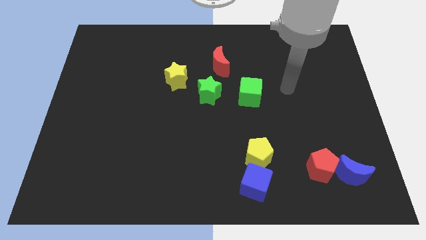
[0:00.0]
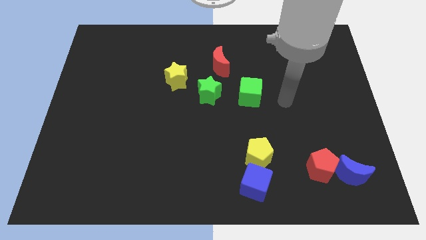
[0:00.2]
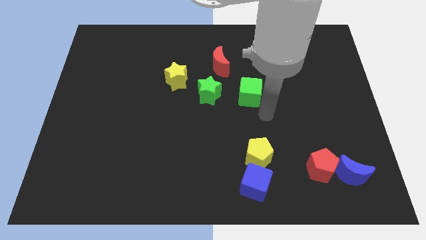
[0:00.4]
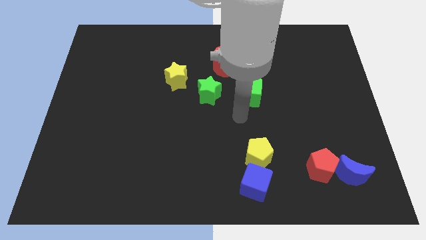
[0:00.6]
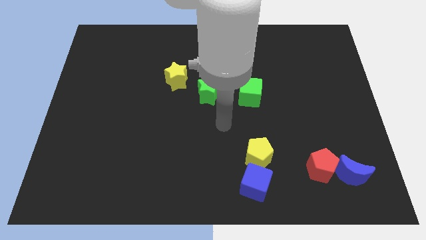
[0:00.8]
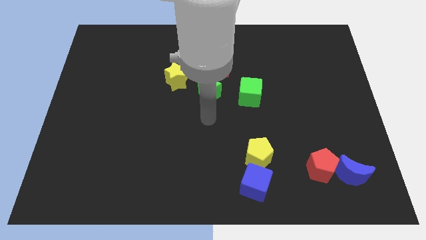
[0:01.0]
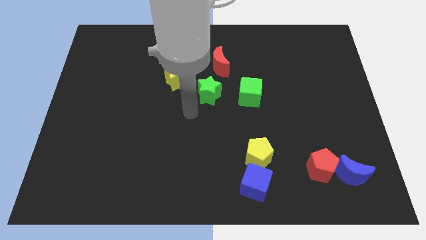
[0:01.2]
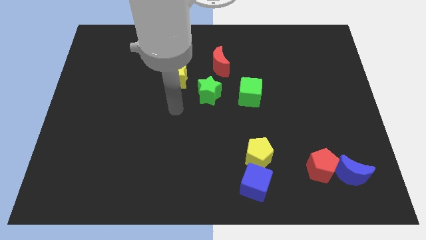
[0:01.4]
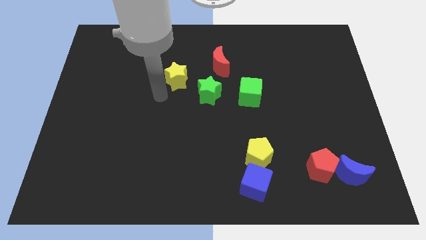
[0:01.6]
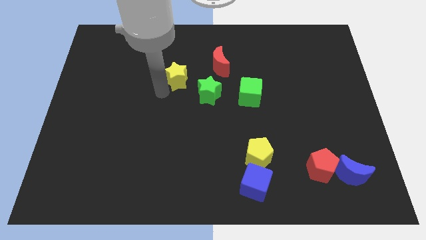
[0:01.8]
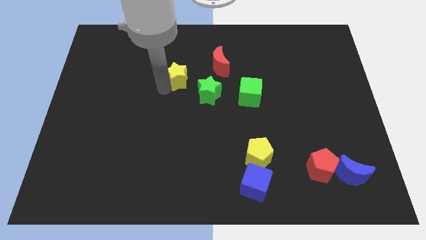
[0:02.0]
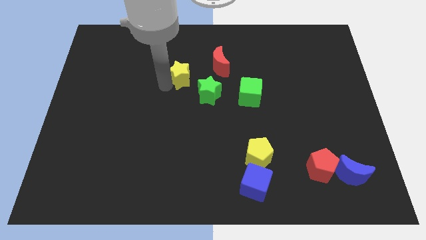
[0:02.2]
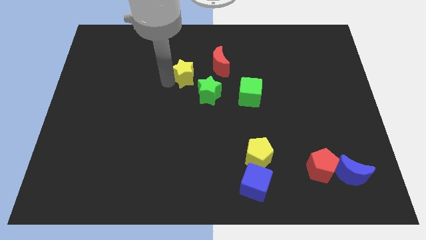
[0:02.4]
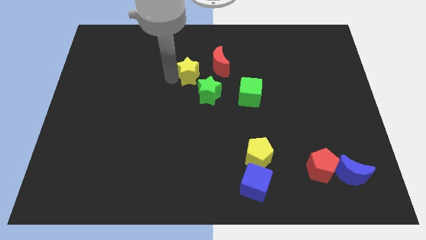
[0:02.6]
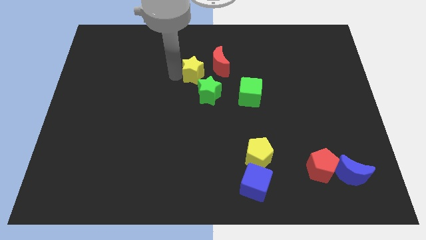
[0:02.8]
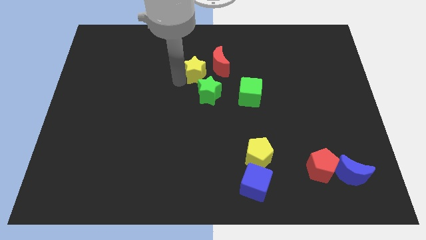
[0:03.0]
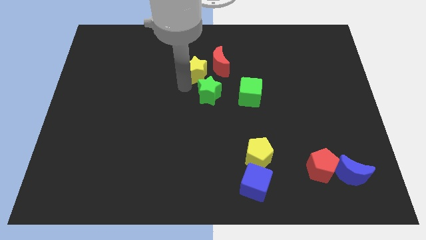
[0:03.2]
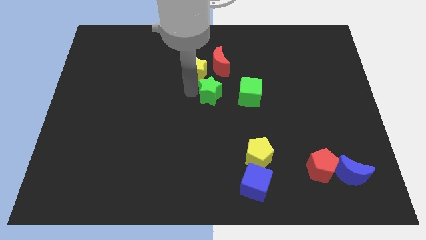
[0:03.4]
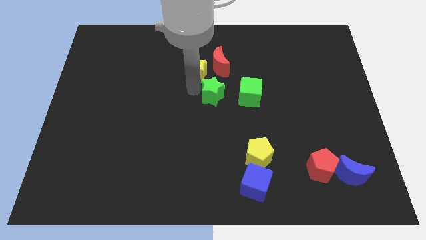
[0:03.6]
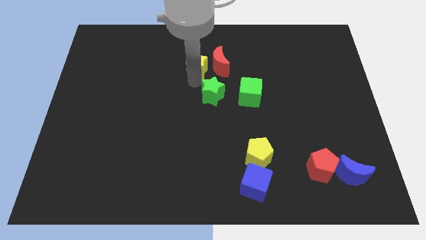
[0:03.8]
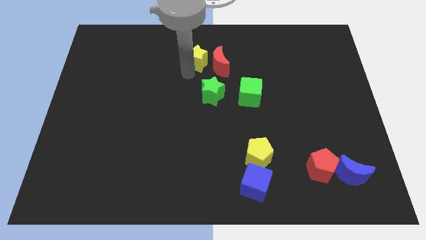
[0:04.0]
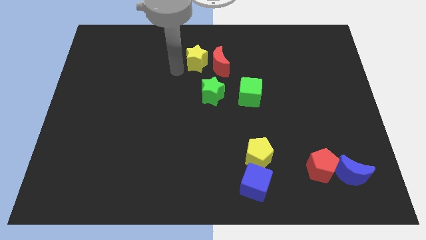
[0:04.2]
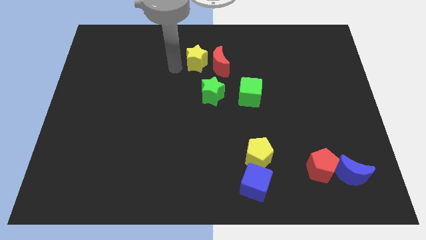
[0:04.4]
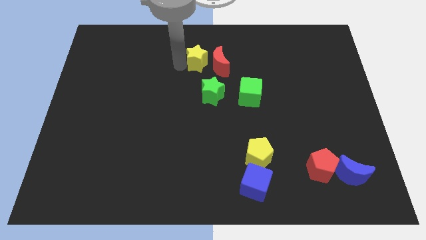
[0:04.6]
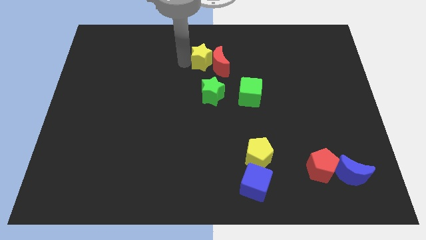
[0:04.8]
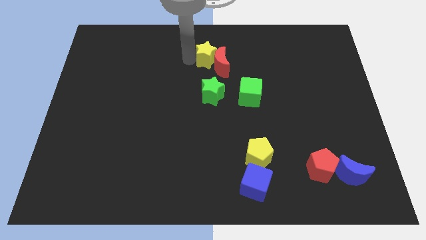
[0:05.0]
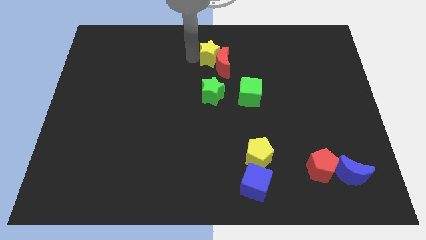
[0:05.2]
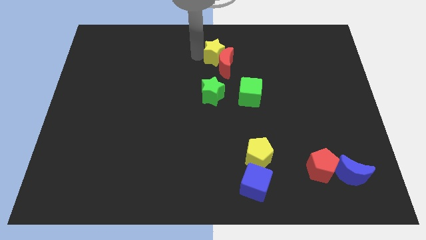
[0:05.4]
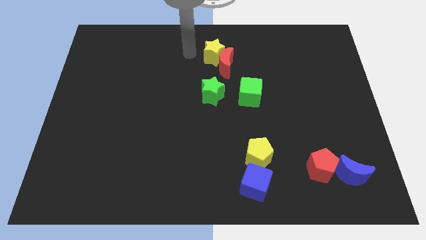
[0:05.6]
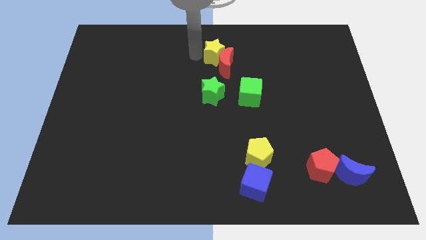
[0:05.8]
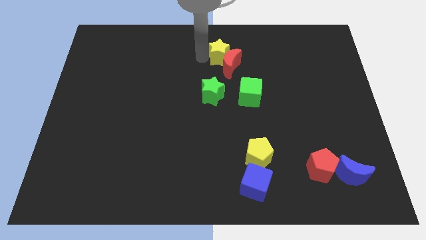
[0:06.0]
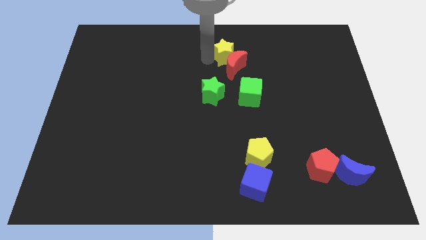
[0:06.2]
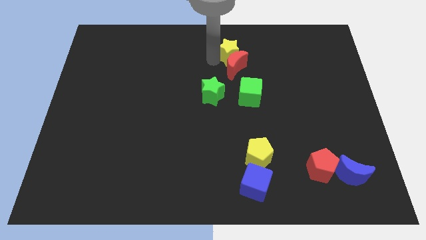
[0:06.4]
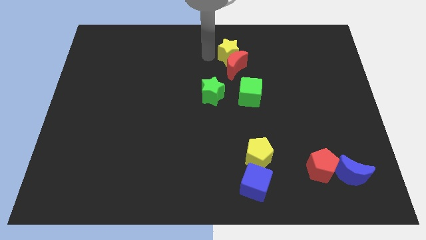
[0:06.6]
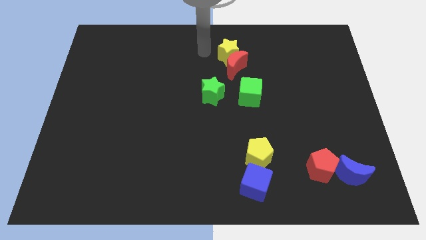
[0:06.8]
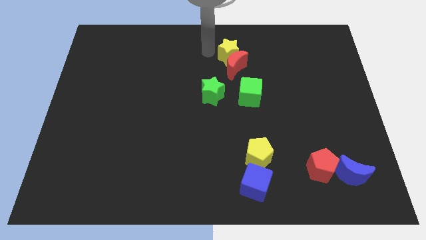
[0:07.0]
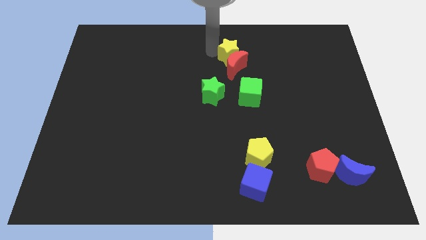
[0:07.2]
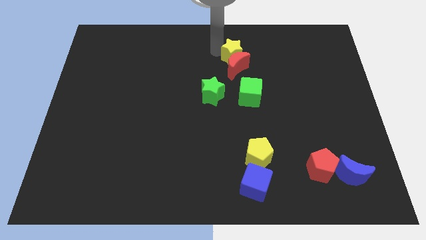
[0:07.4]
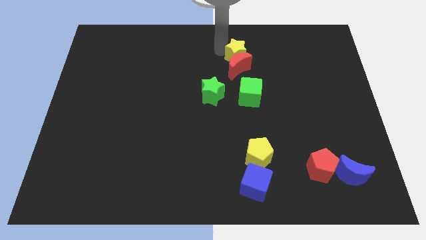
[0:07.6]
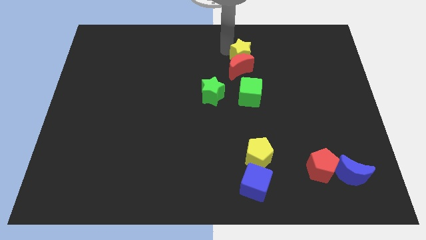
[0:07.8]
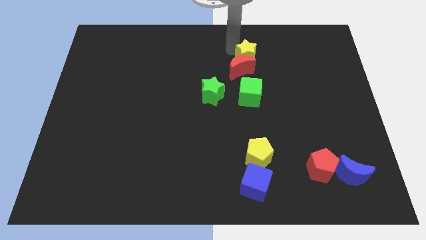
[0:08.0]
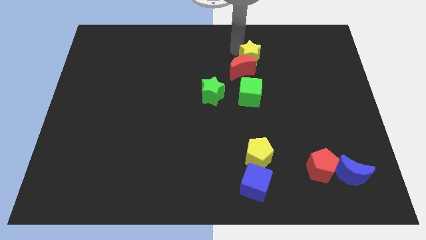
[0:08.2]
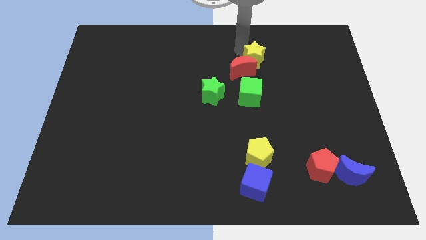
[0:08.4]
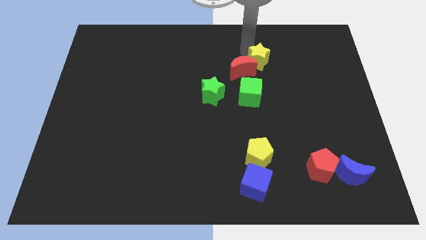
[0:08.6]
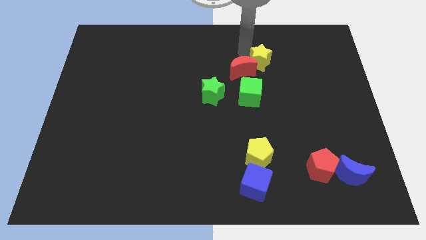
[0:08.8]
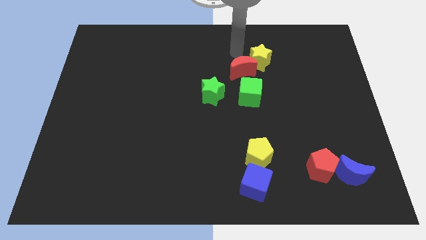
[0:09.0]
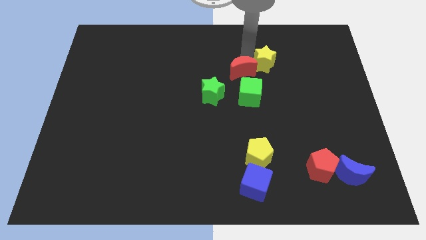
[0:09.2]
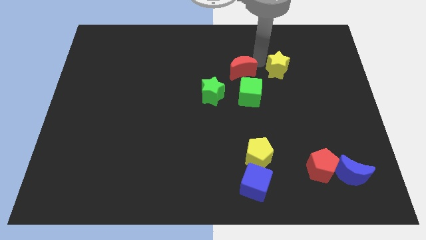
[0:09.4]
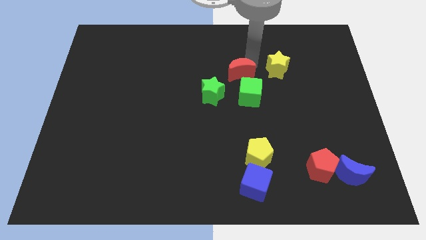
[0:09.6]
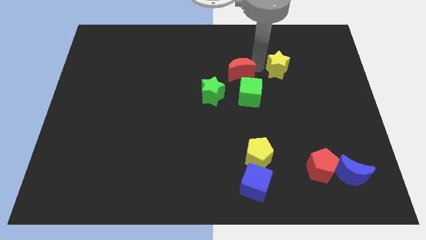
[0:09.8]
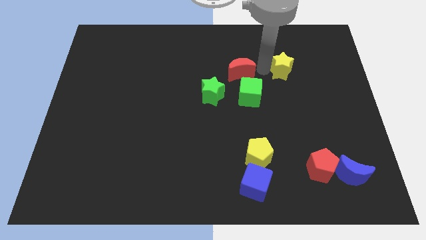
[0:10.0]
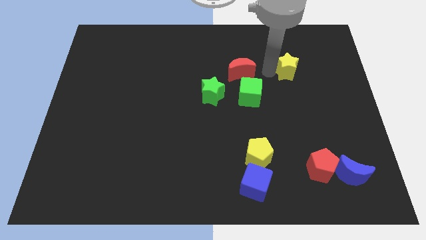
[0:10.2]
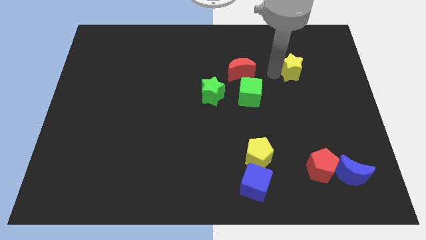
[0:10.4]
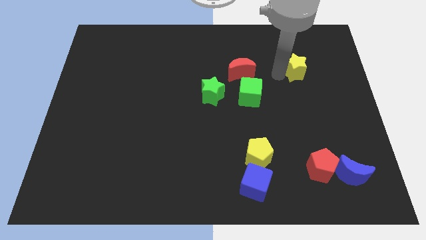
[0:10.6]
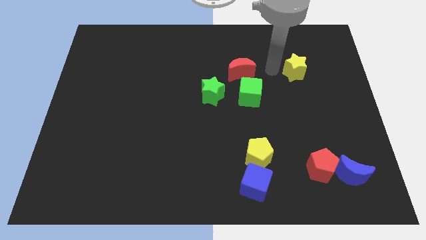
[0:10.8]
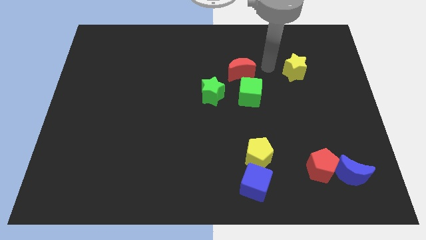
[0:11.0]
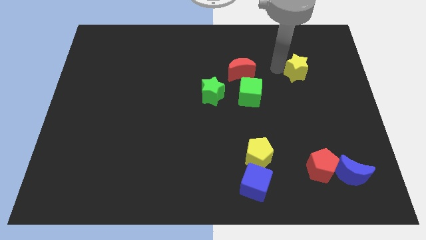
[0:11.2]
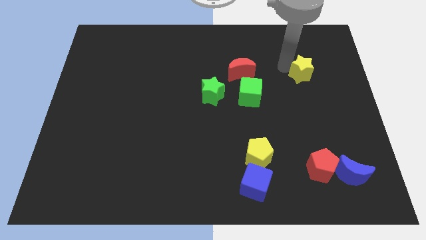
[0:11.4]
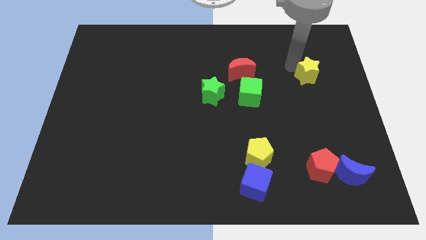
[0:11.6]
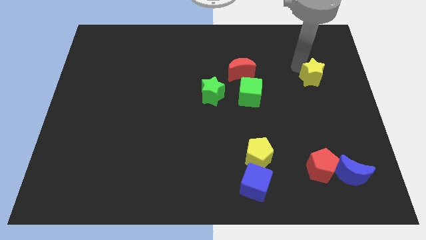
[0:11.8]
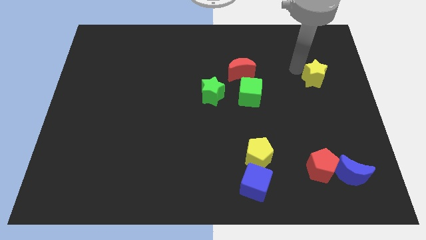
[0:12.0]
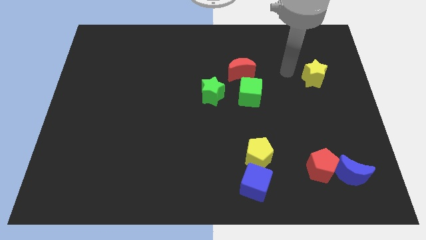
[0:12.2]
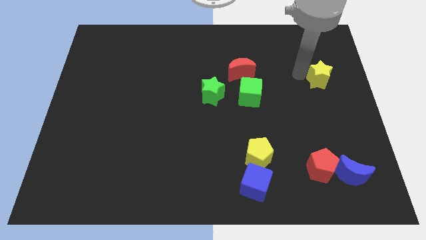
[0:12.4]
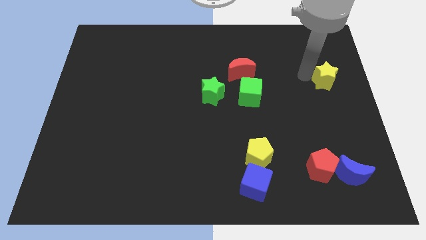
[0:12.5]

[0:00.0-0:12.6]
slide the yellow star to the right side of the board
